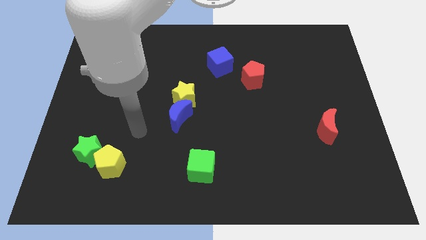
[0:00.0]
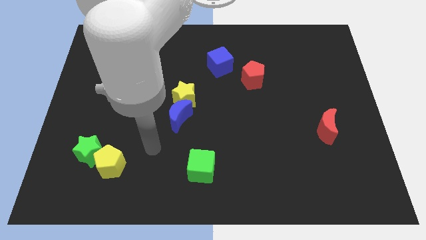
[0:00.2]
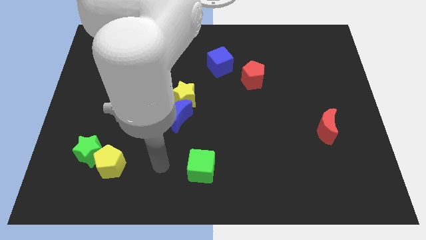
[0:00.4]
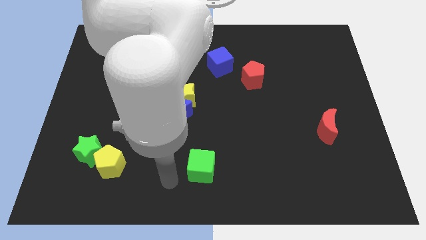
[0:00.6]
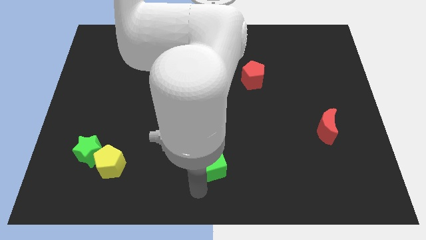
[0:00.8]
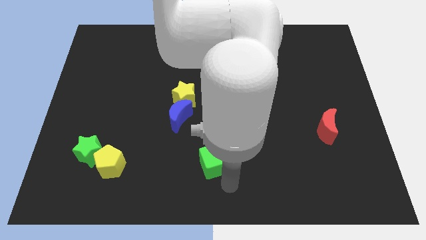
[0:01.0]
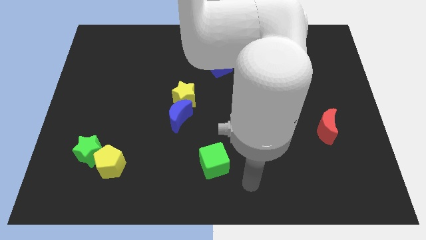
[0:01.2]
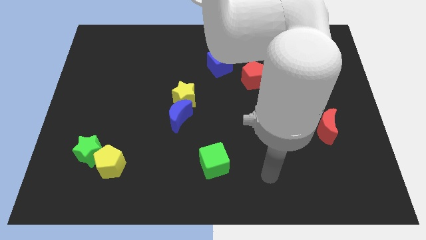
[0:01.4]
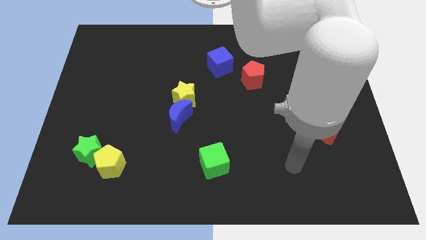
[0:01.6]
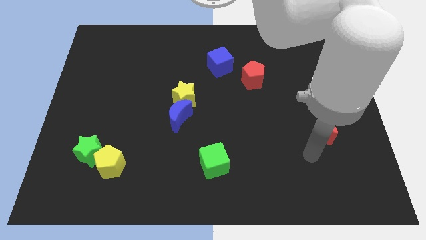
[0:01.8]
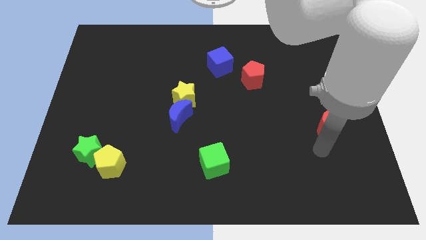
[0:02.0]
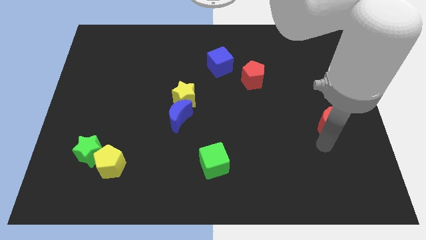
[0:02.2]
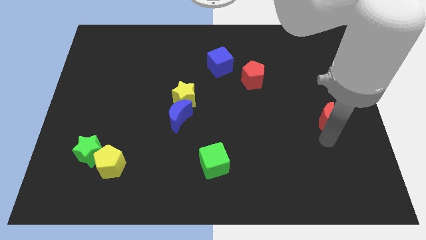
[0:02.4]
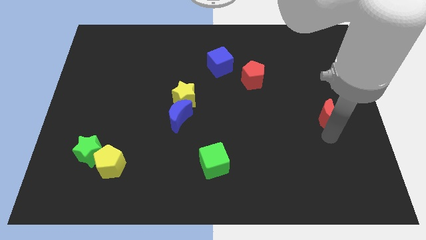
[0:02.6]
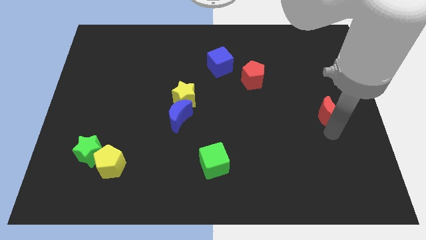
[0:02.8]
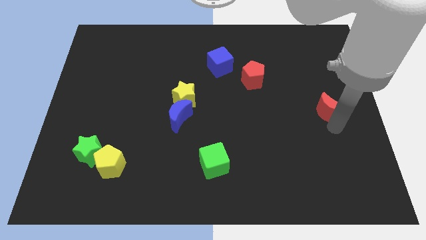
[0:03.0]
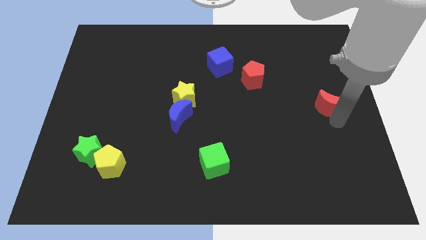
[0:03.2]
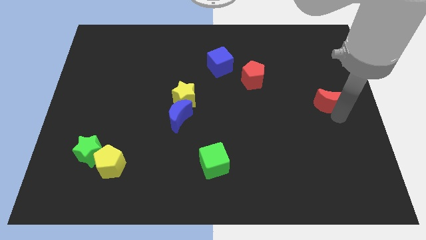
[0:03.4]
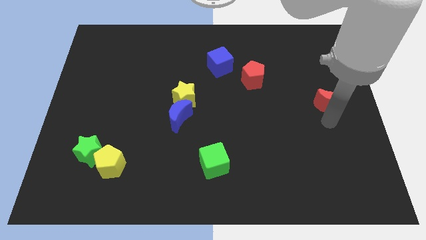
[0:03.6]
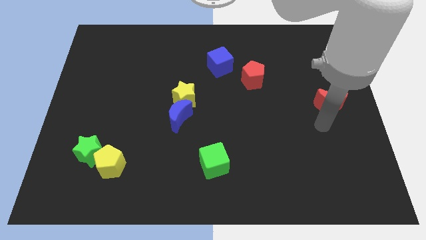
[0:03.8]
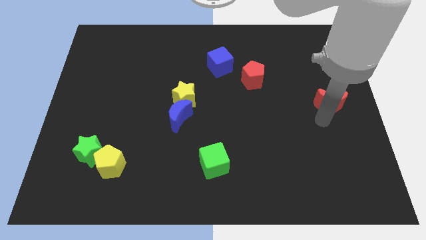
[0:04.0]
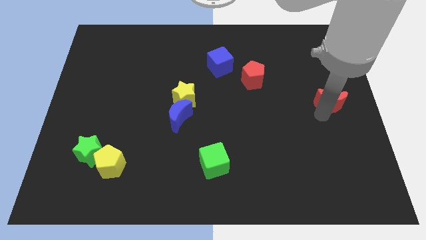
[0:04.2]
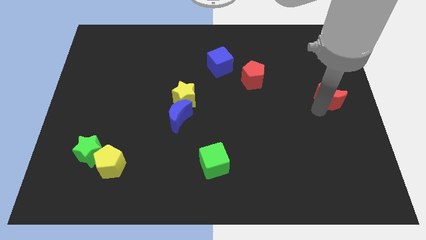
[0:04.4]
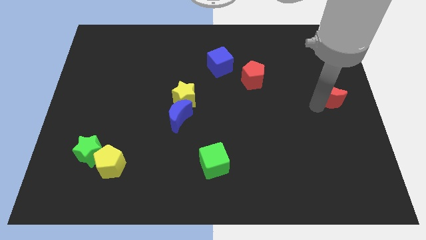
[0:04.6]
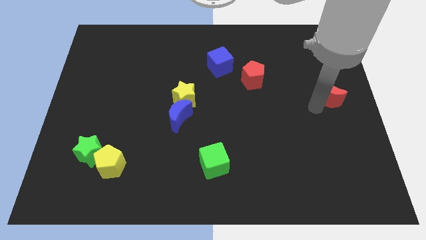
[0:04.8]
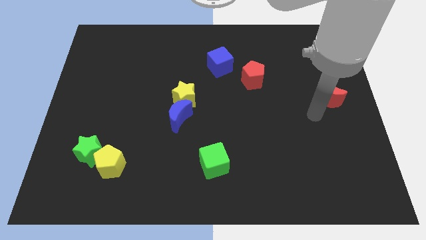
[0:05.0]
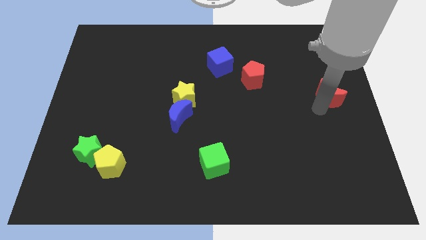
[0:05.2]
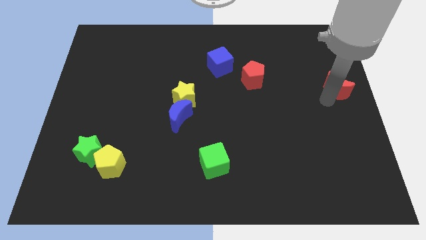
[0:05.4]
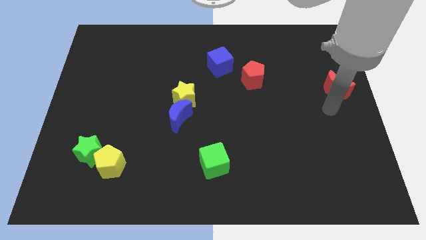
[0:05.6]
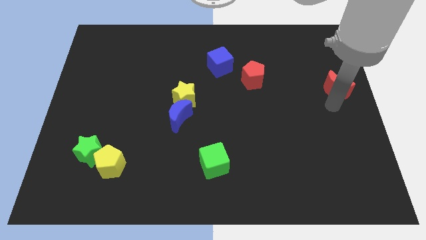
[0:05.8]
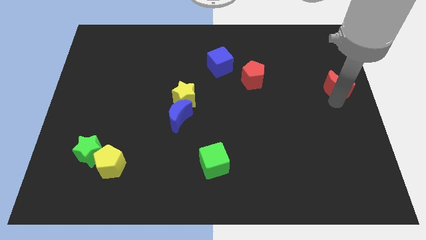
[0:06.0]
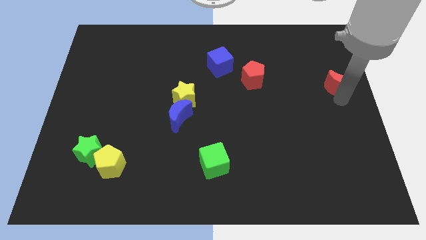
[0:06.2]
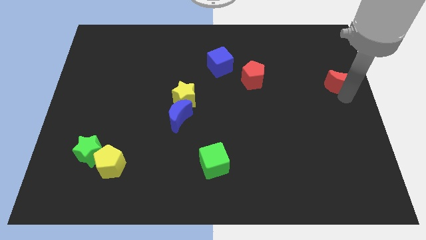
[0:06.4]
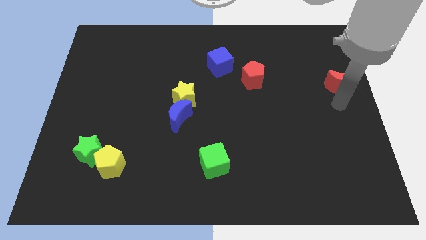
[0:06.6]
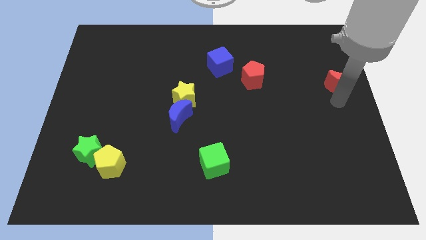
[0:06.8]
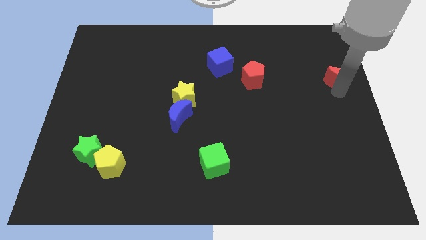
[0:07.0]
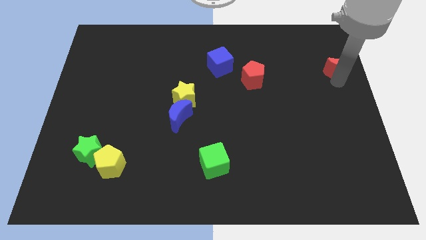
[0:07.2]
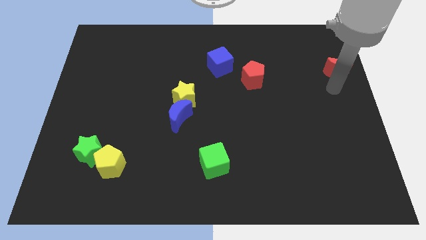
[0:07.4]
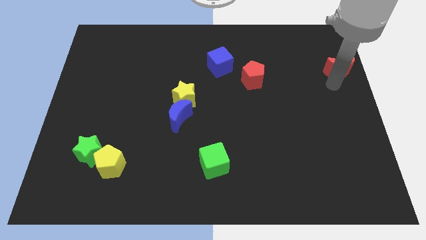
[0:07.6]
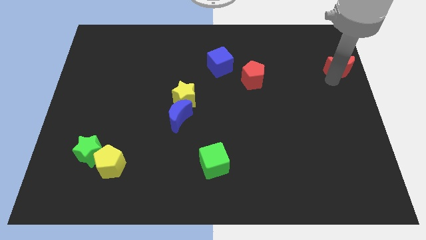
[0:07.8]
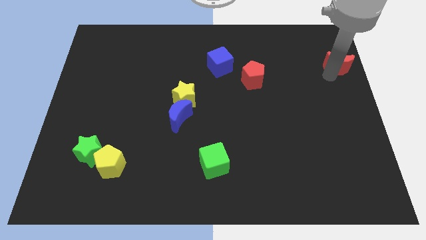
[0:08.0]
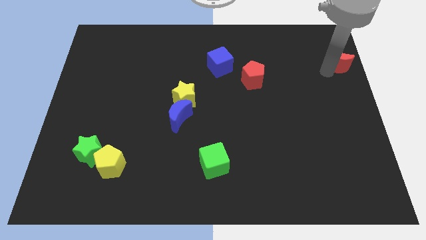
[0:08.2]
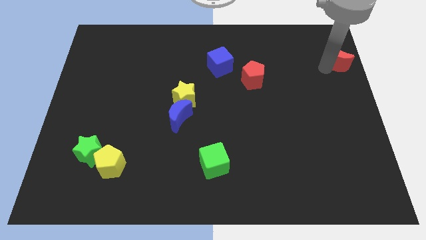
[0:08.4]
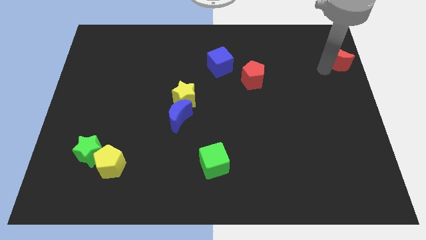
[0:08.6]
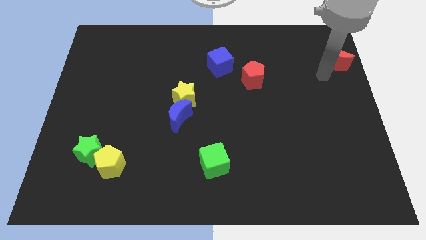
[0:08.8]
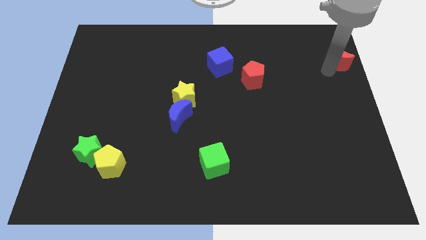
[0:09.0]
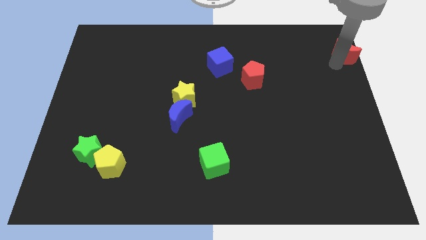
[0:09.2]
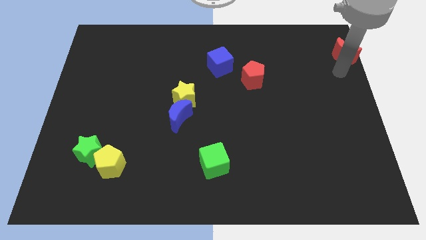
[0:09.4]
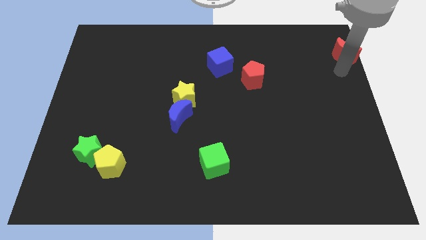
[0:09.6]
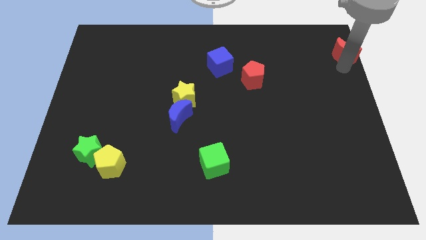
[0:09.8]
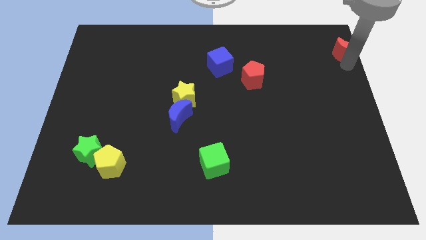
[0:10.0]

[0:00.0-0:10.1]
put the red moon to the top right of the board

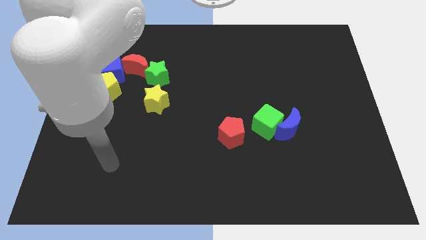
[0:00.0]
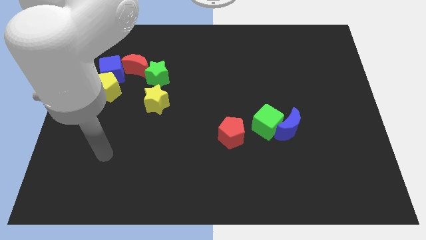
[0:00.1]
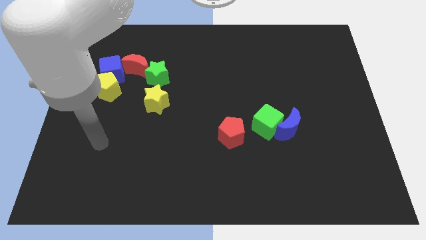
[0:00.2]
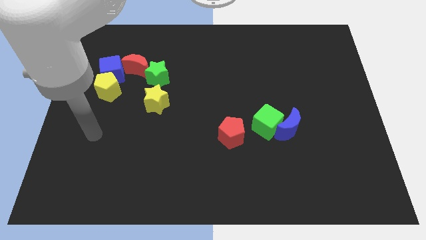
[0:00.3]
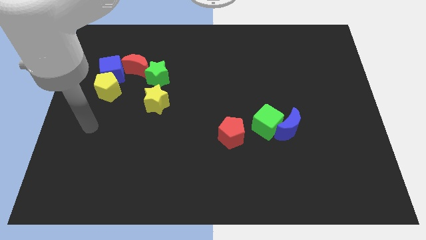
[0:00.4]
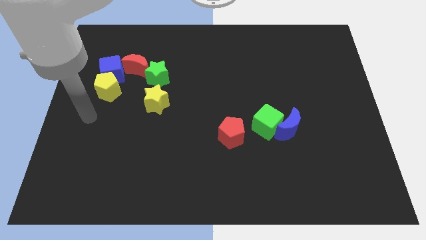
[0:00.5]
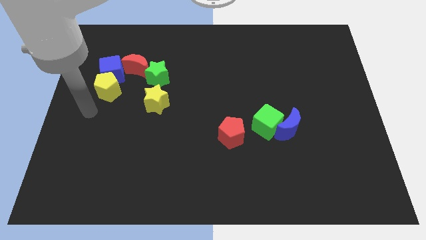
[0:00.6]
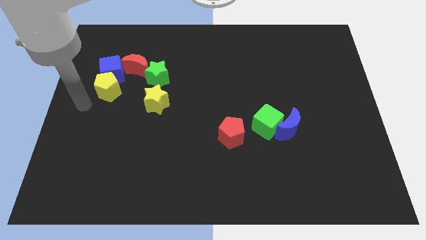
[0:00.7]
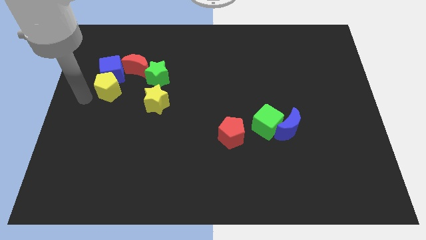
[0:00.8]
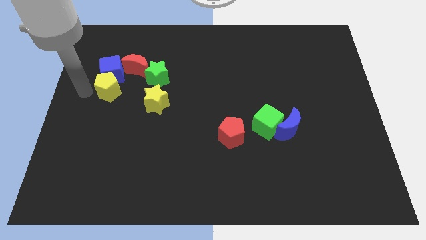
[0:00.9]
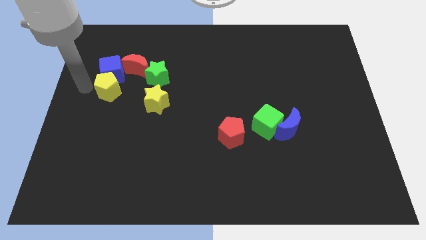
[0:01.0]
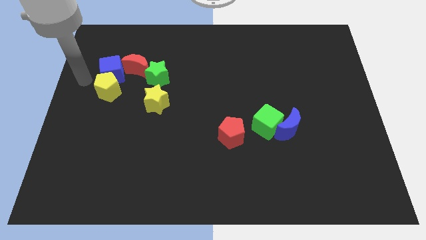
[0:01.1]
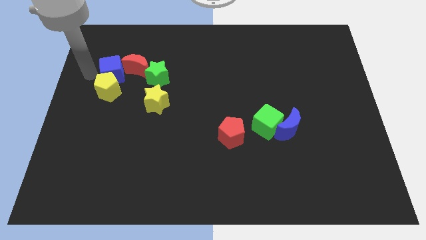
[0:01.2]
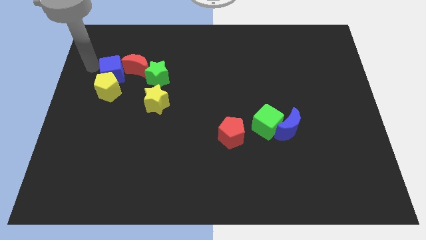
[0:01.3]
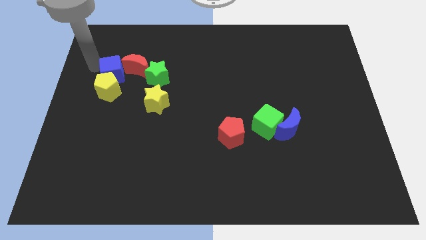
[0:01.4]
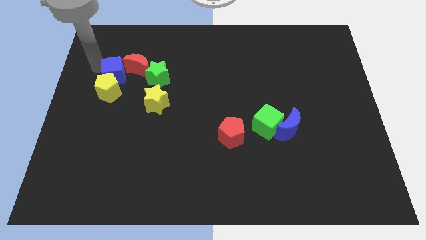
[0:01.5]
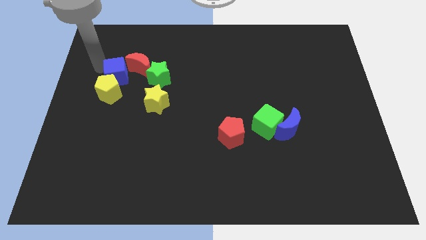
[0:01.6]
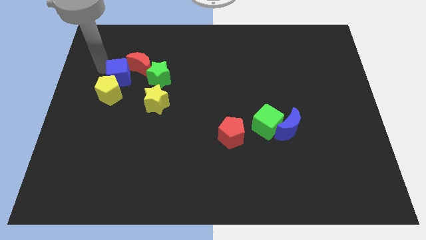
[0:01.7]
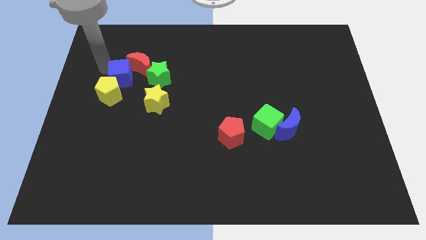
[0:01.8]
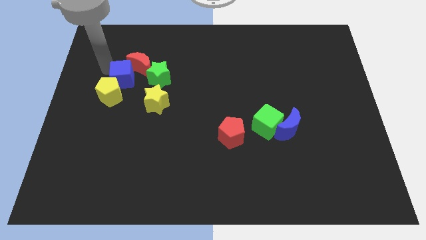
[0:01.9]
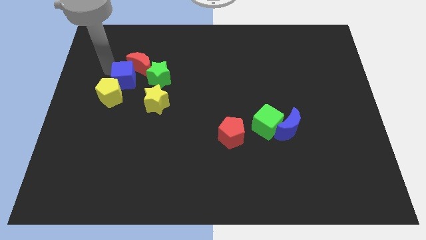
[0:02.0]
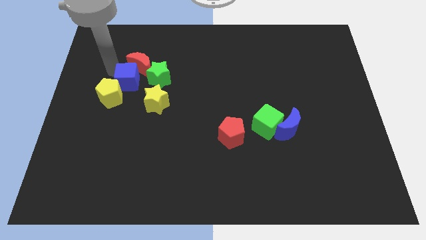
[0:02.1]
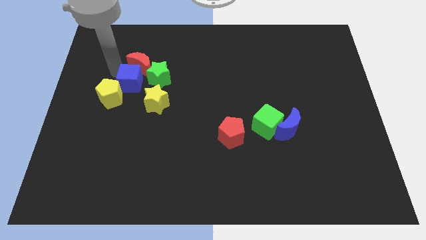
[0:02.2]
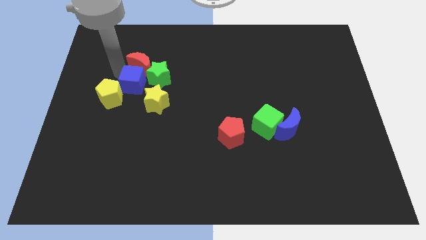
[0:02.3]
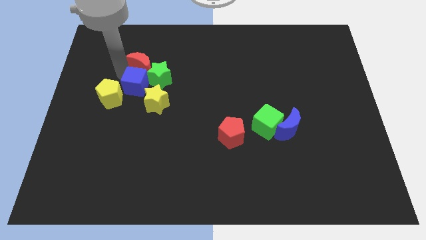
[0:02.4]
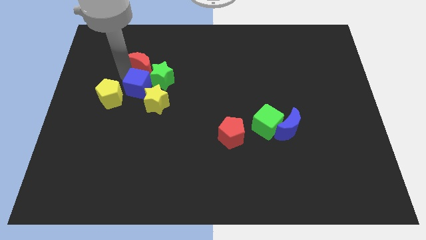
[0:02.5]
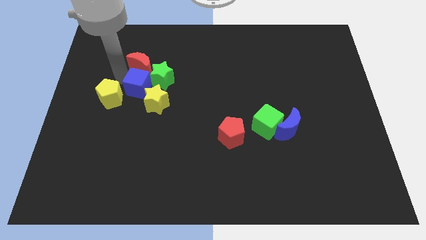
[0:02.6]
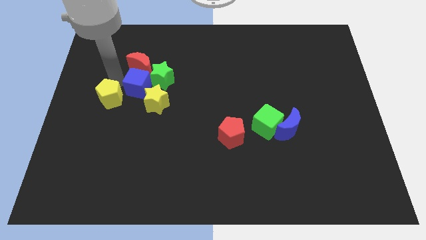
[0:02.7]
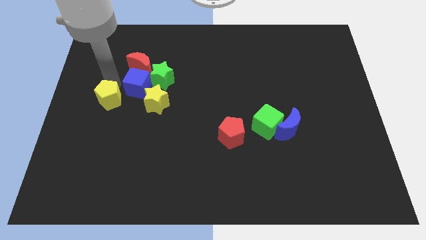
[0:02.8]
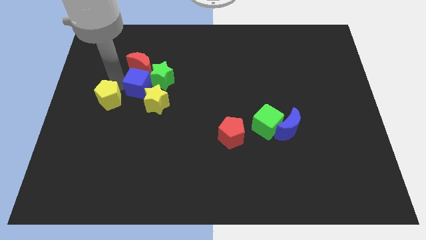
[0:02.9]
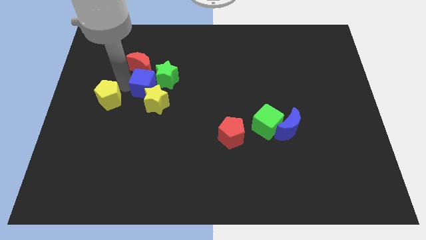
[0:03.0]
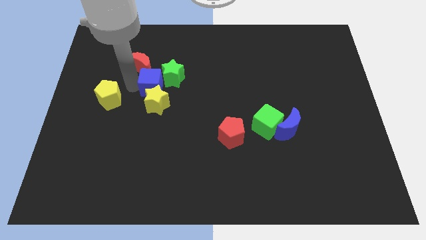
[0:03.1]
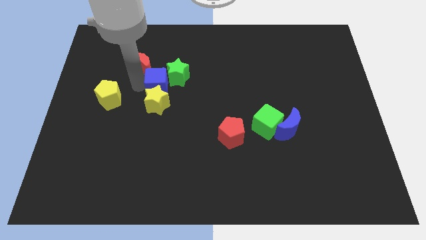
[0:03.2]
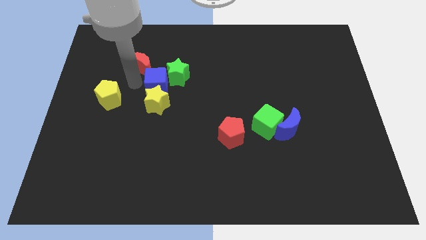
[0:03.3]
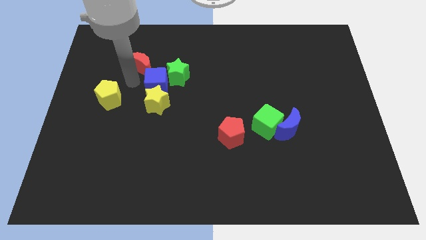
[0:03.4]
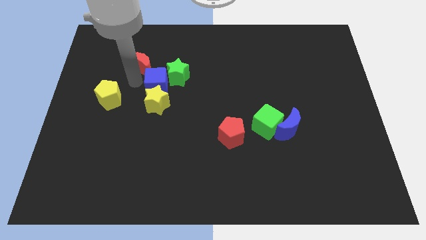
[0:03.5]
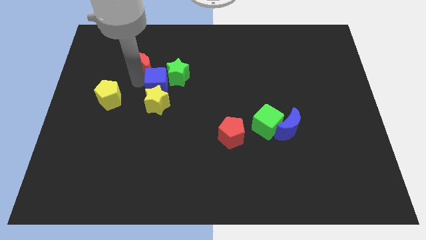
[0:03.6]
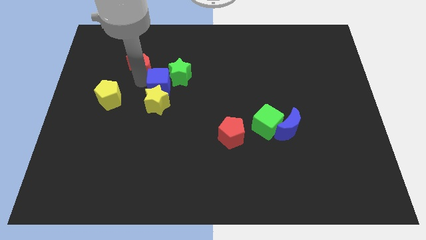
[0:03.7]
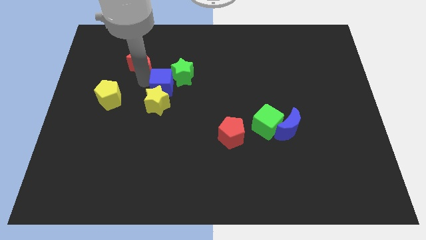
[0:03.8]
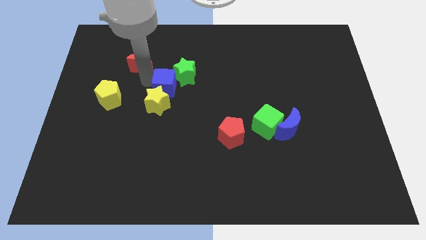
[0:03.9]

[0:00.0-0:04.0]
push the blue cube to the center
